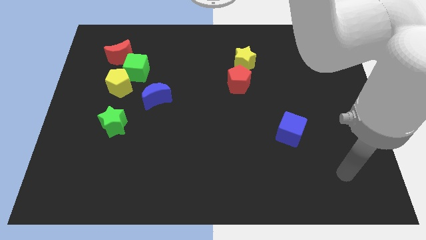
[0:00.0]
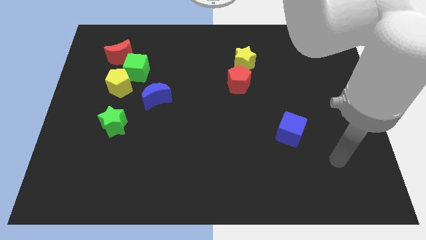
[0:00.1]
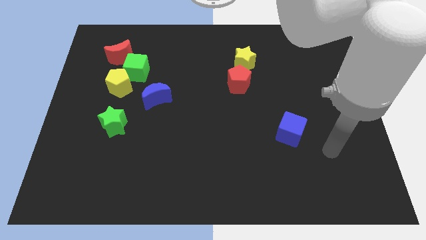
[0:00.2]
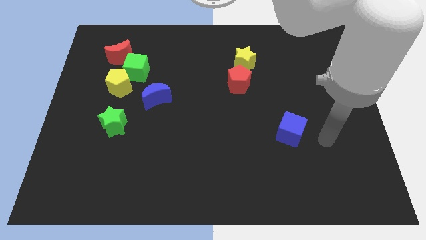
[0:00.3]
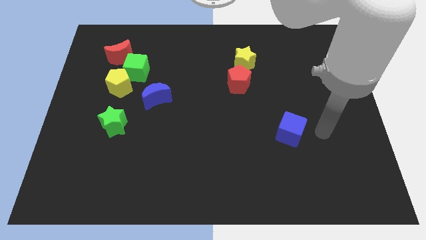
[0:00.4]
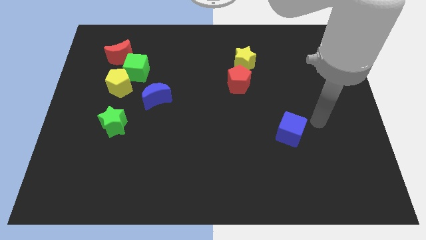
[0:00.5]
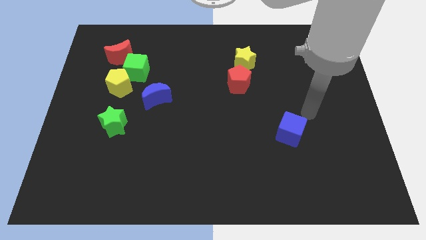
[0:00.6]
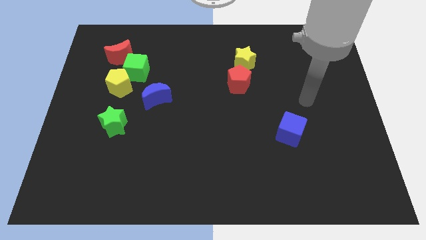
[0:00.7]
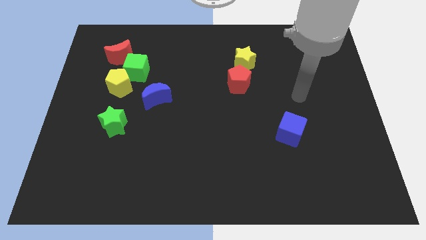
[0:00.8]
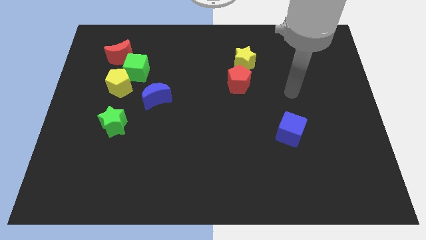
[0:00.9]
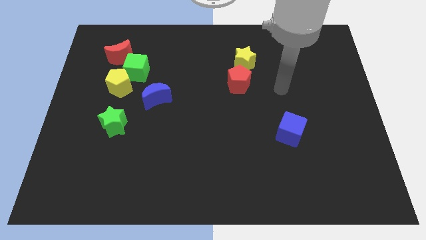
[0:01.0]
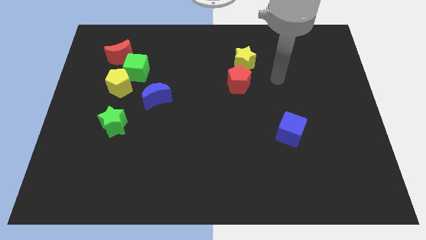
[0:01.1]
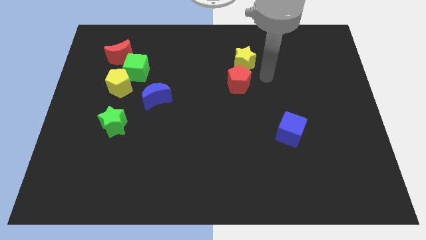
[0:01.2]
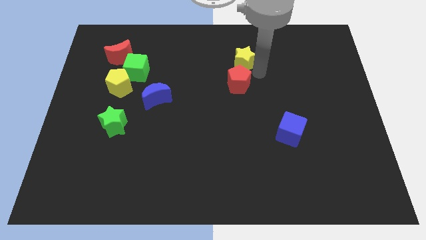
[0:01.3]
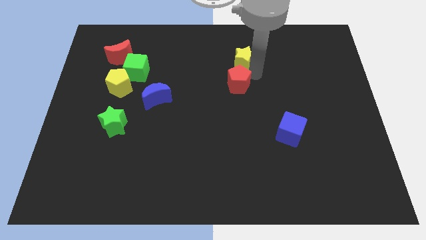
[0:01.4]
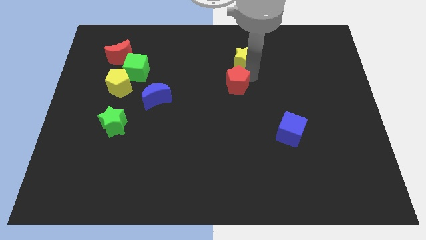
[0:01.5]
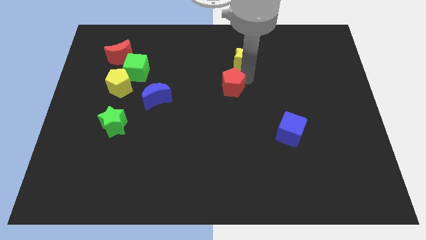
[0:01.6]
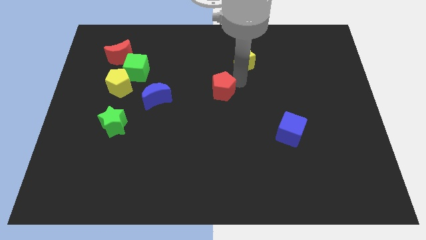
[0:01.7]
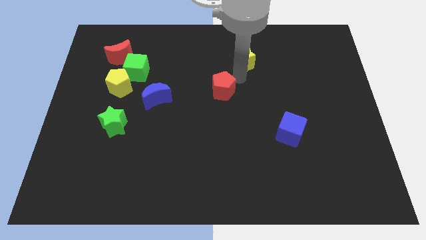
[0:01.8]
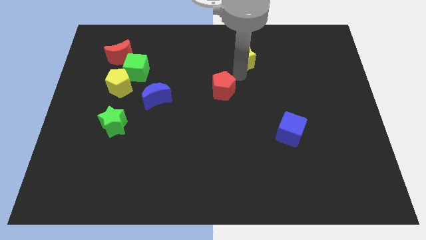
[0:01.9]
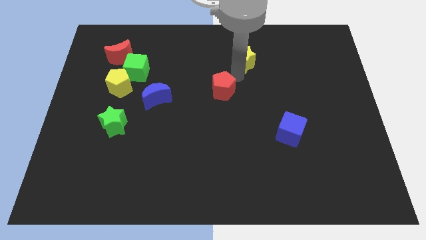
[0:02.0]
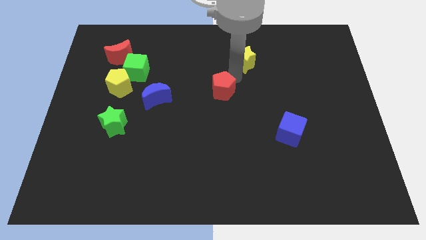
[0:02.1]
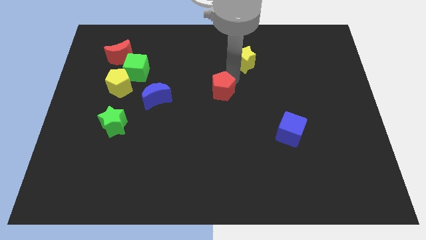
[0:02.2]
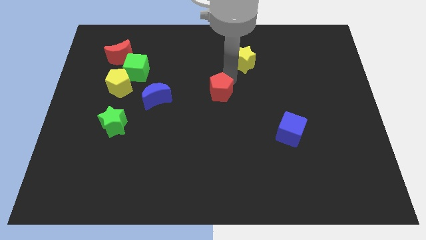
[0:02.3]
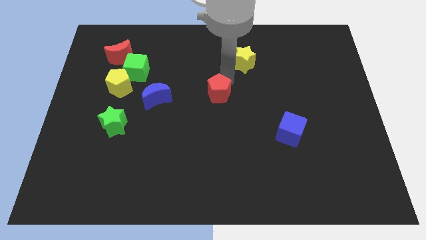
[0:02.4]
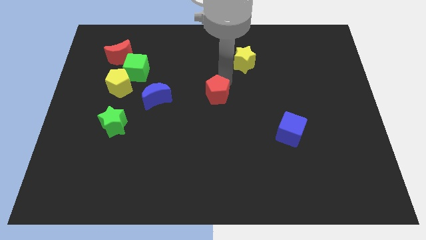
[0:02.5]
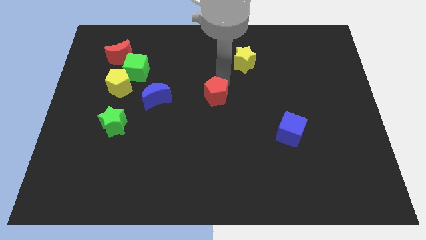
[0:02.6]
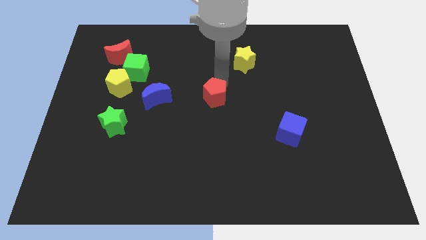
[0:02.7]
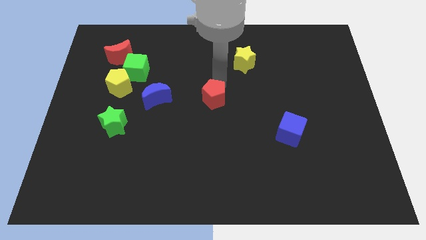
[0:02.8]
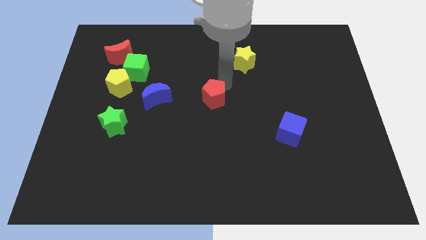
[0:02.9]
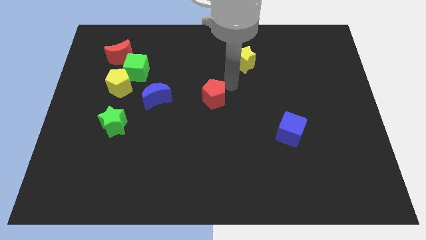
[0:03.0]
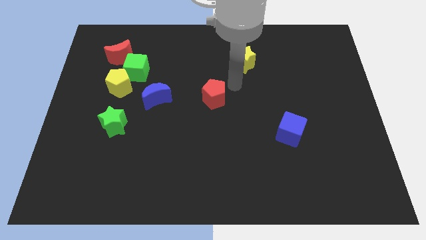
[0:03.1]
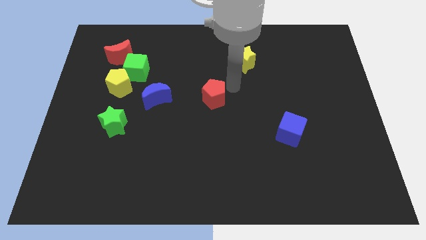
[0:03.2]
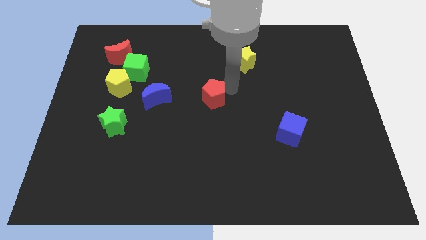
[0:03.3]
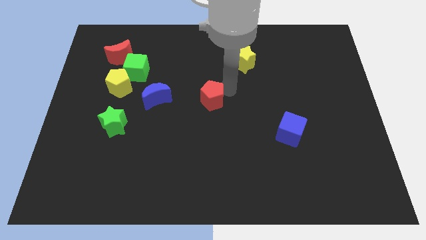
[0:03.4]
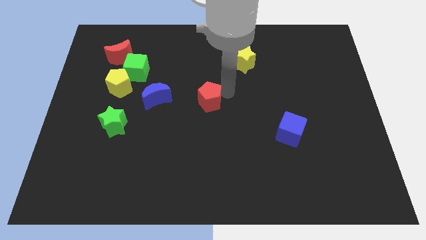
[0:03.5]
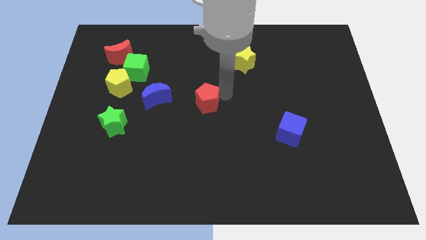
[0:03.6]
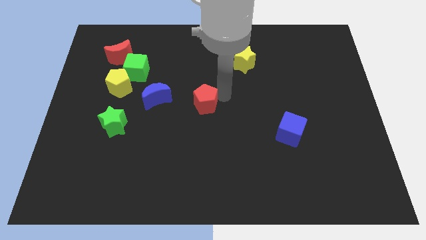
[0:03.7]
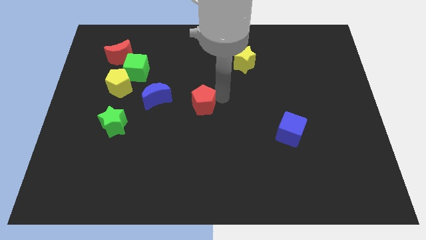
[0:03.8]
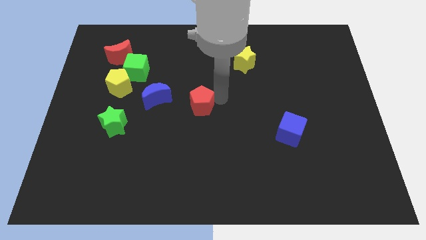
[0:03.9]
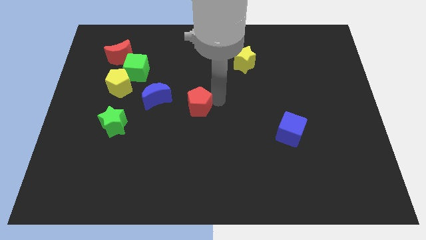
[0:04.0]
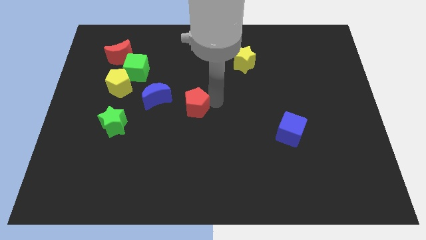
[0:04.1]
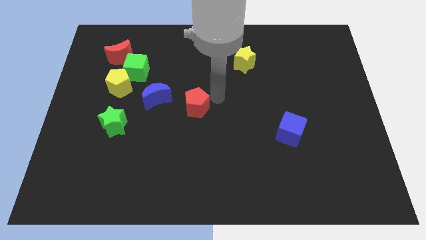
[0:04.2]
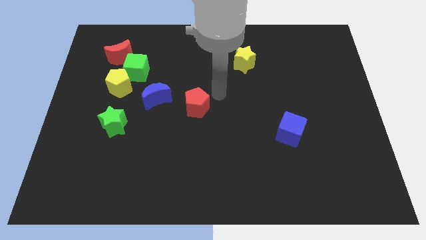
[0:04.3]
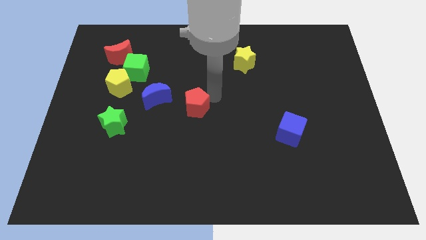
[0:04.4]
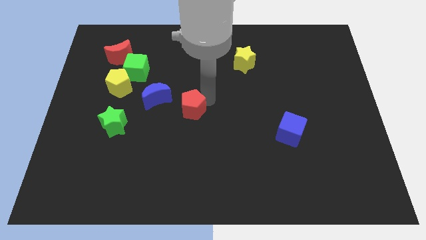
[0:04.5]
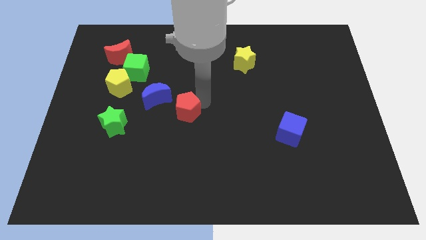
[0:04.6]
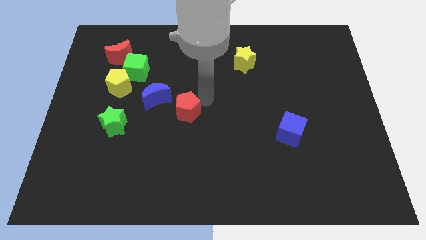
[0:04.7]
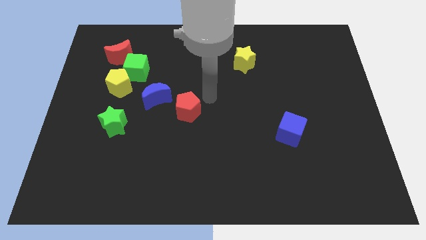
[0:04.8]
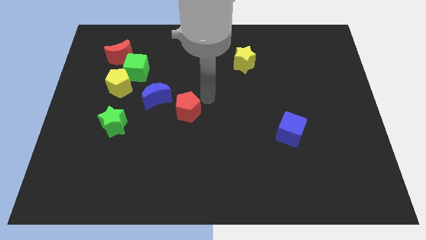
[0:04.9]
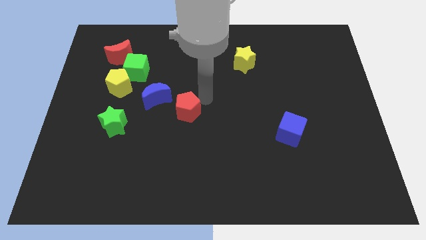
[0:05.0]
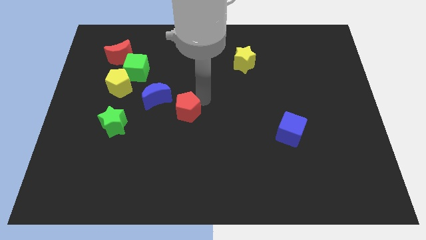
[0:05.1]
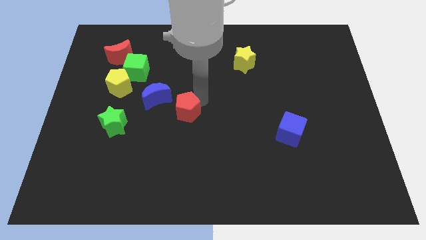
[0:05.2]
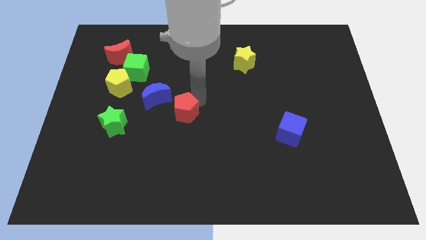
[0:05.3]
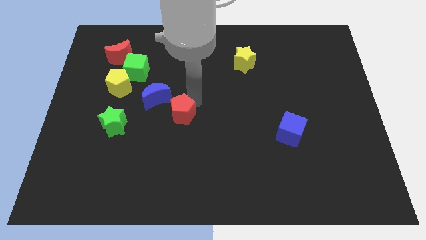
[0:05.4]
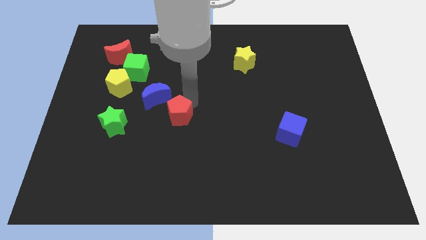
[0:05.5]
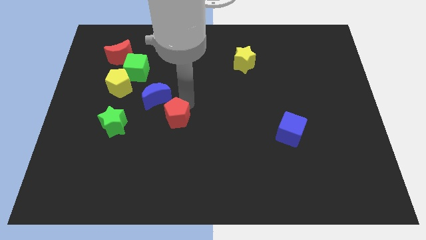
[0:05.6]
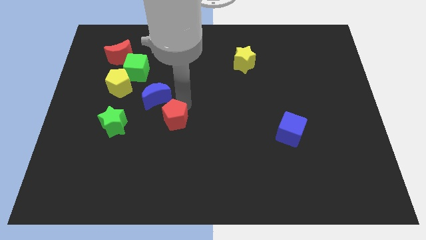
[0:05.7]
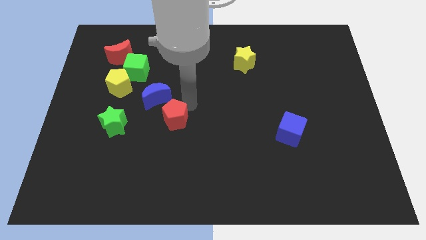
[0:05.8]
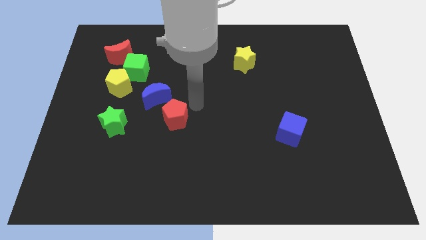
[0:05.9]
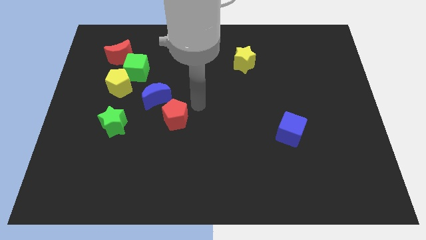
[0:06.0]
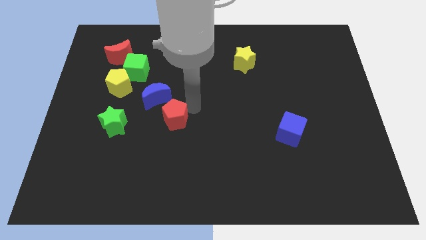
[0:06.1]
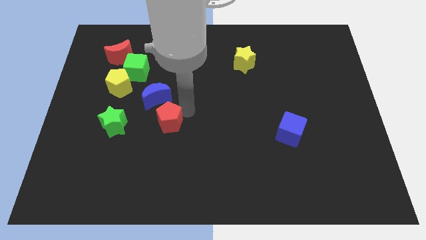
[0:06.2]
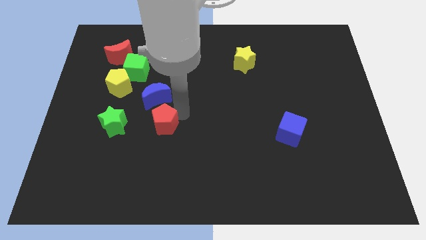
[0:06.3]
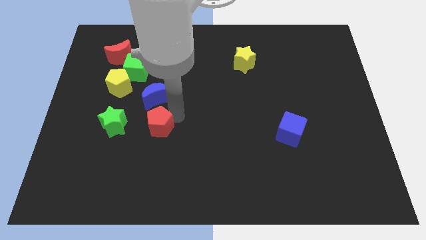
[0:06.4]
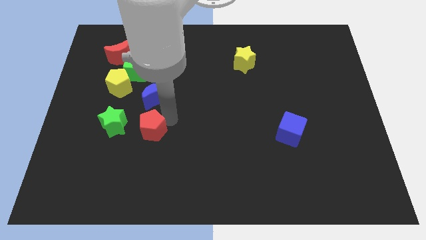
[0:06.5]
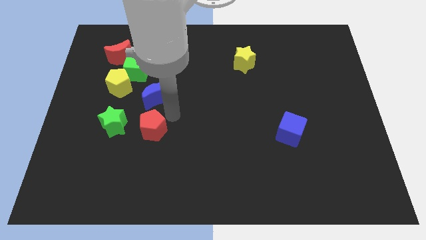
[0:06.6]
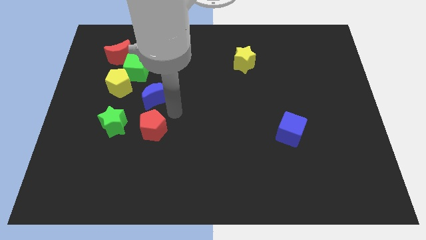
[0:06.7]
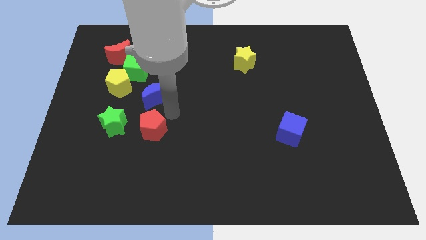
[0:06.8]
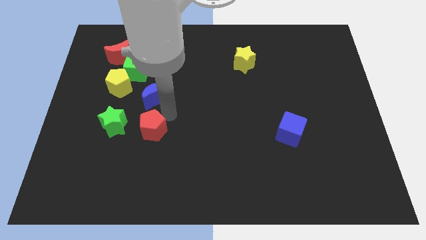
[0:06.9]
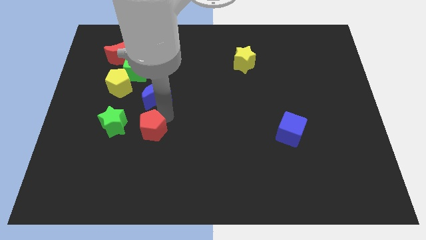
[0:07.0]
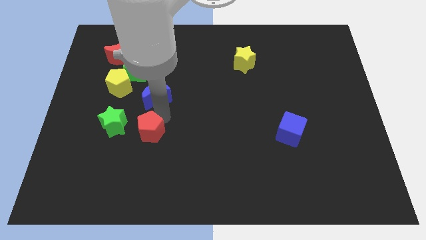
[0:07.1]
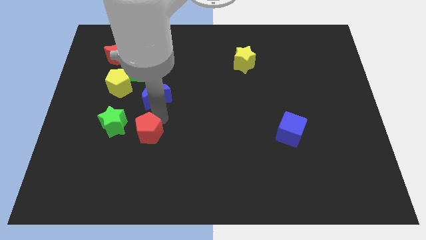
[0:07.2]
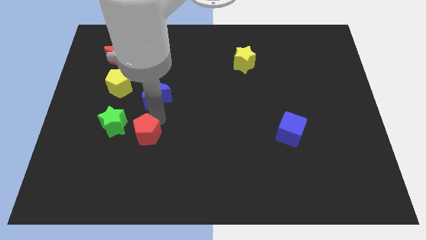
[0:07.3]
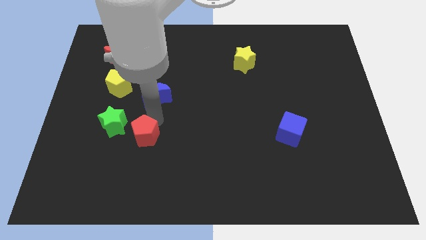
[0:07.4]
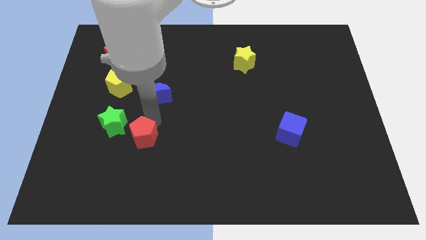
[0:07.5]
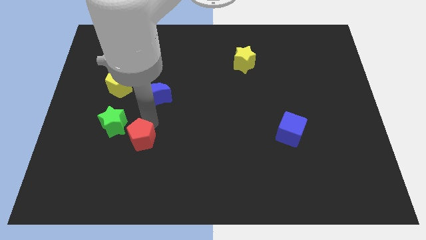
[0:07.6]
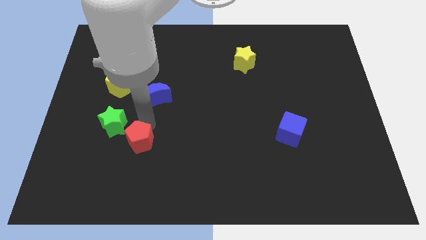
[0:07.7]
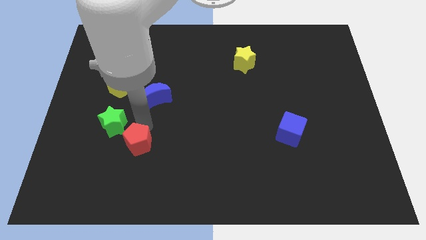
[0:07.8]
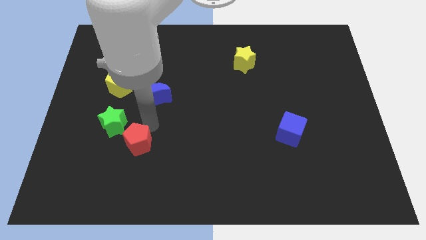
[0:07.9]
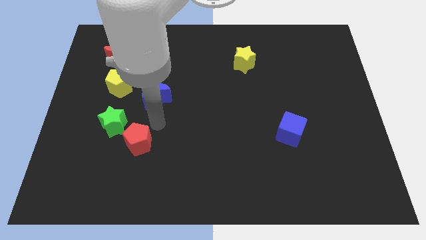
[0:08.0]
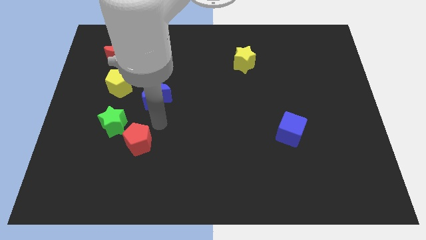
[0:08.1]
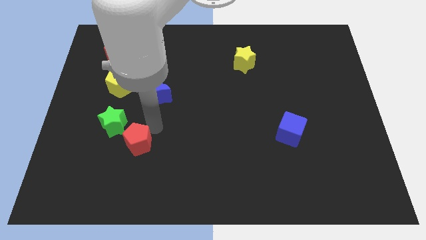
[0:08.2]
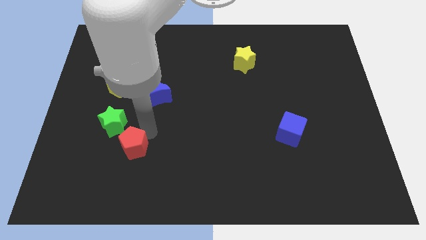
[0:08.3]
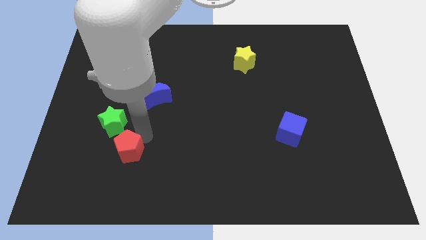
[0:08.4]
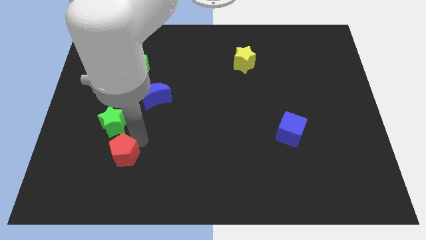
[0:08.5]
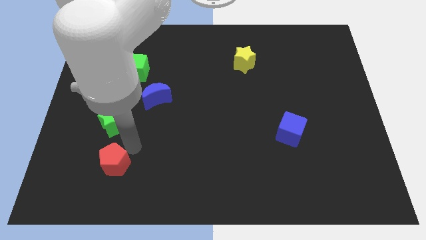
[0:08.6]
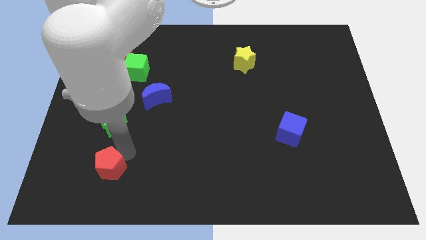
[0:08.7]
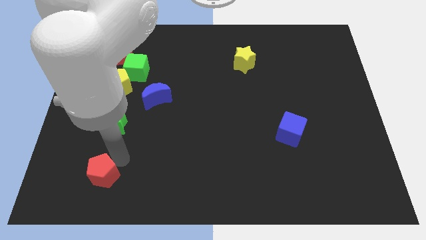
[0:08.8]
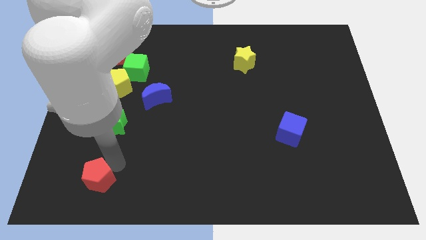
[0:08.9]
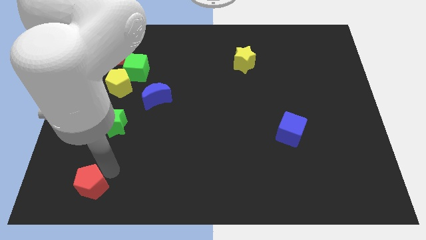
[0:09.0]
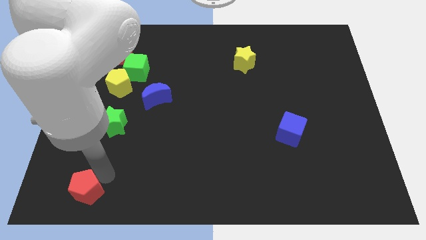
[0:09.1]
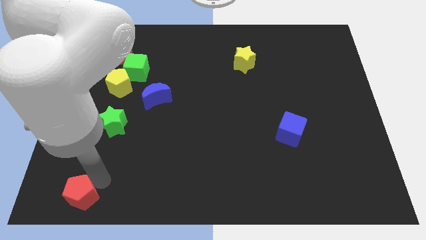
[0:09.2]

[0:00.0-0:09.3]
push the red pentagon to the lower left corner
